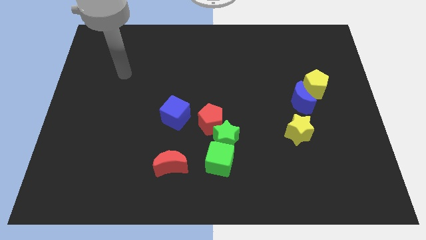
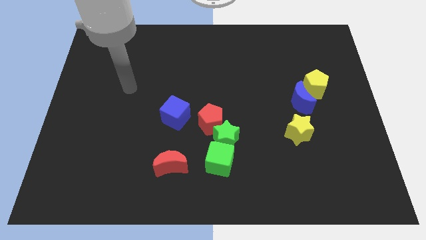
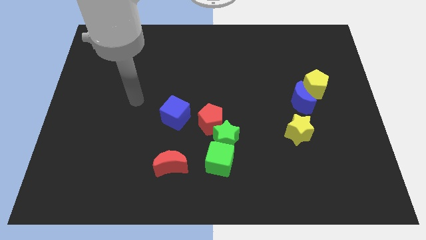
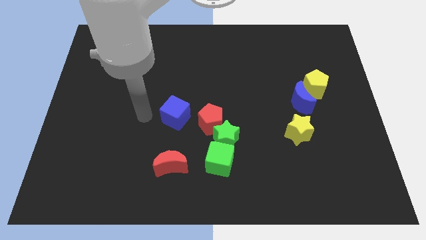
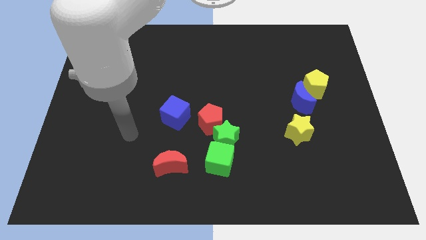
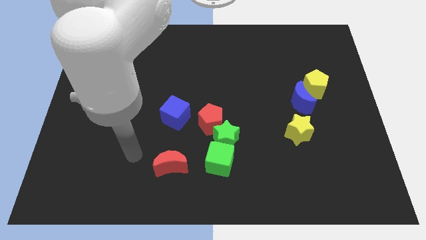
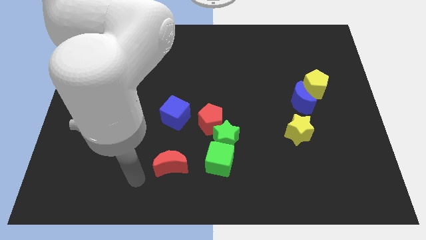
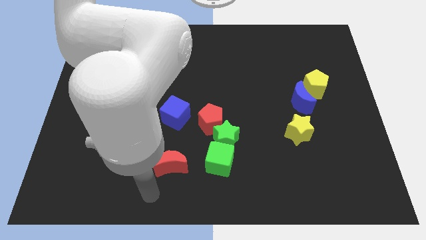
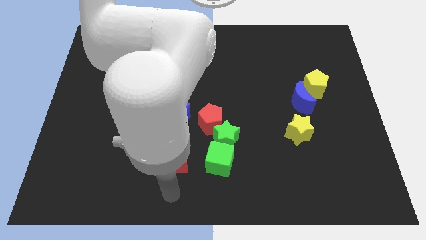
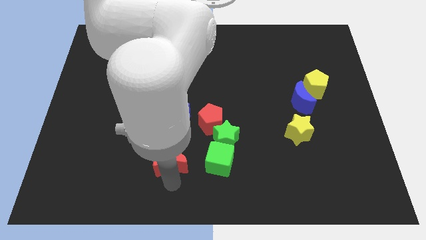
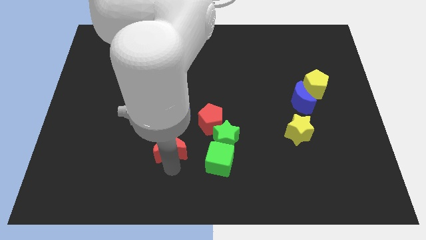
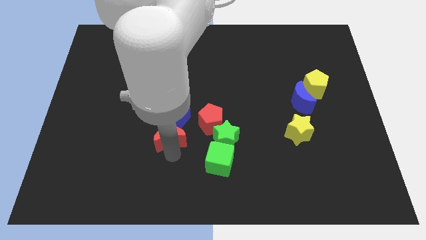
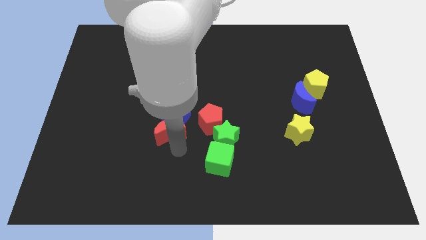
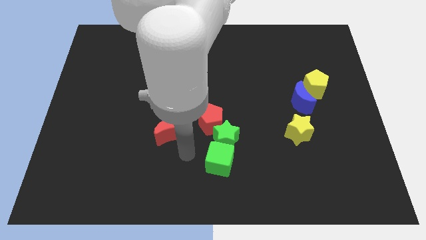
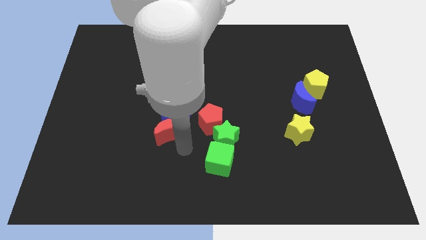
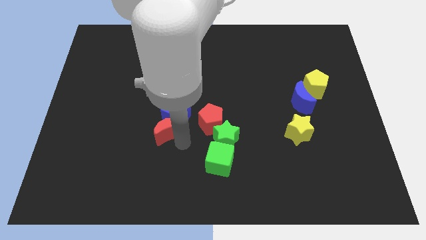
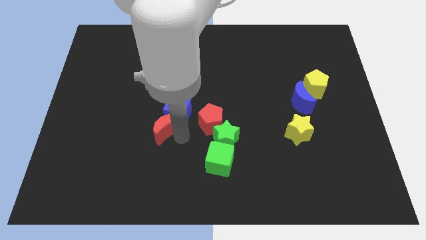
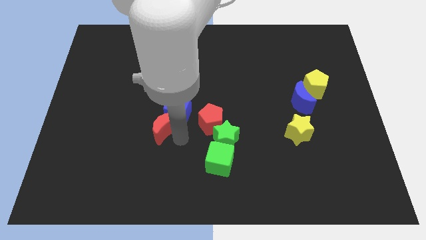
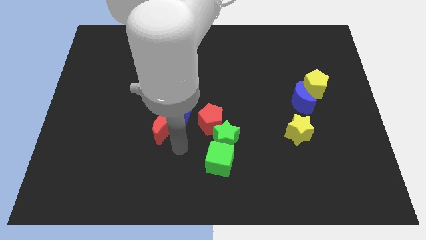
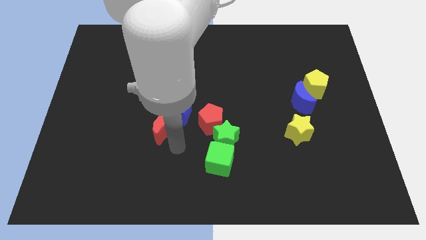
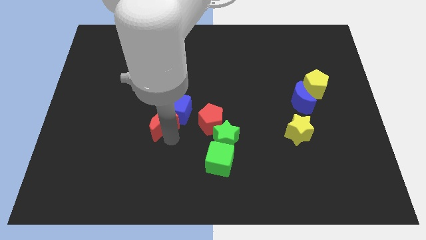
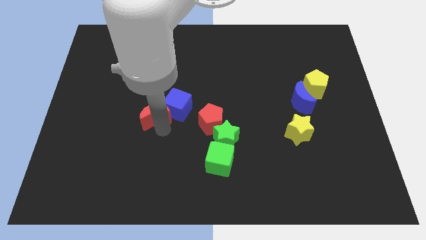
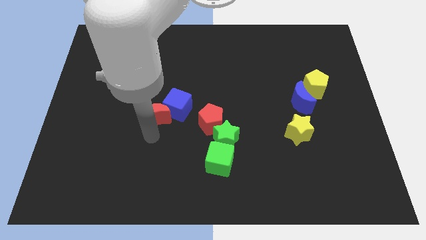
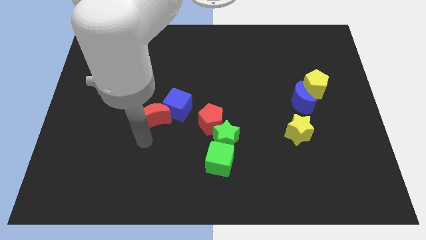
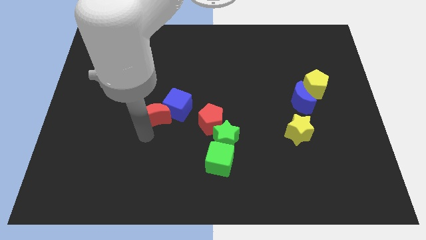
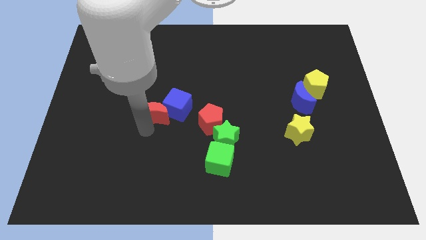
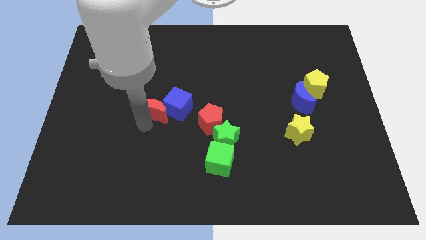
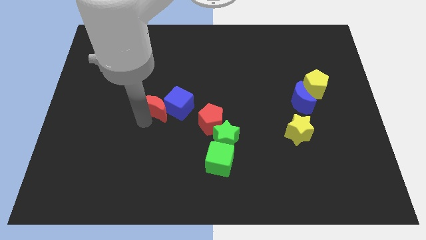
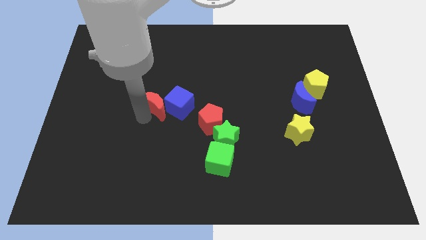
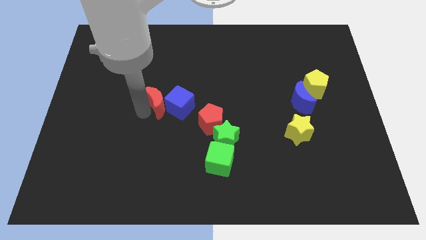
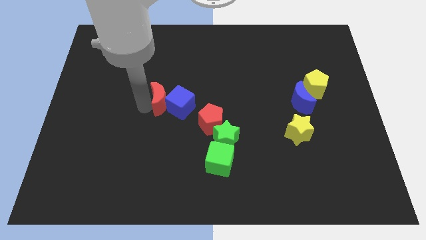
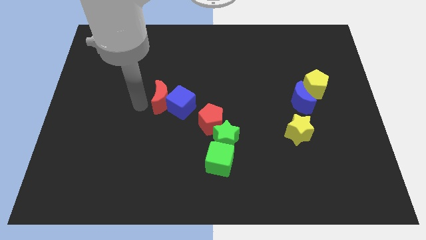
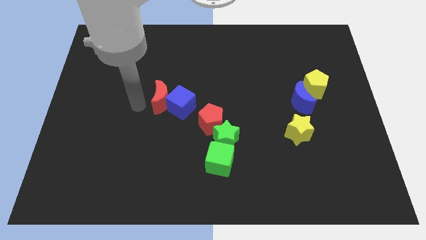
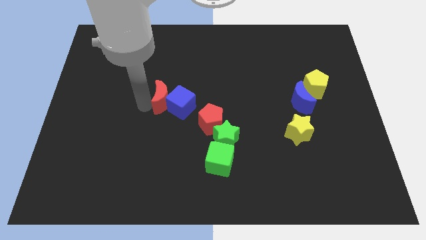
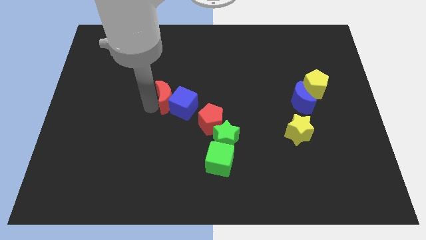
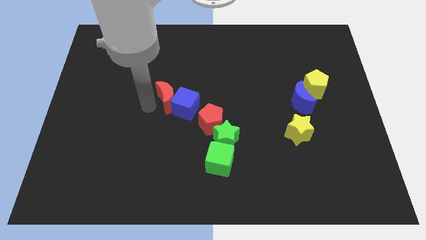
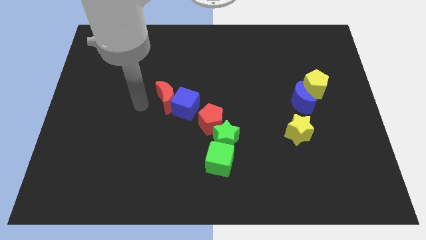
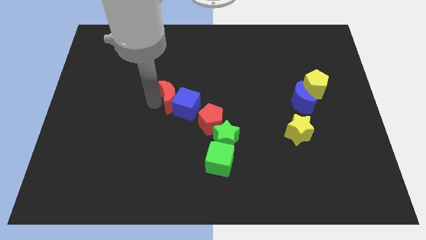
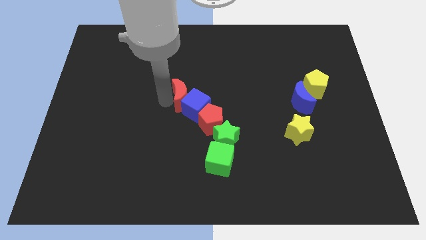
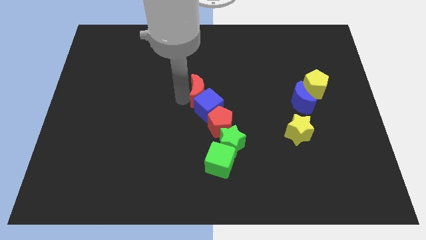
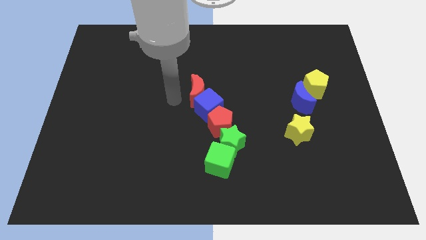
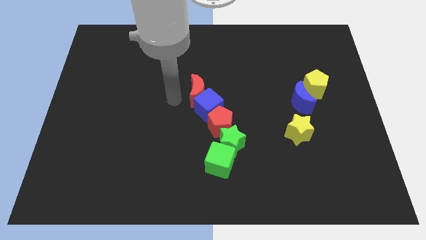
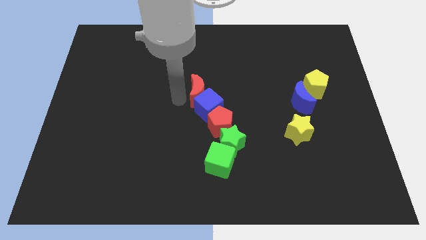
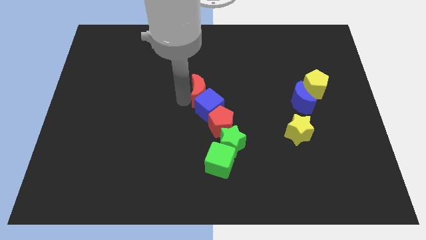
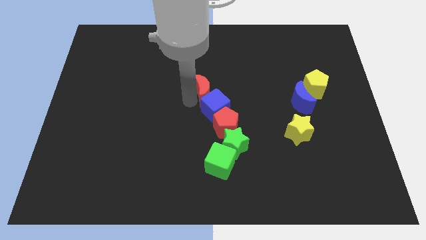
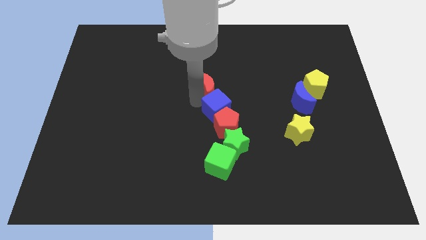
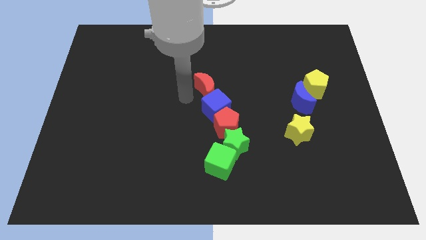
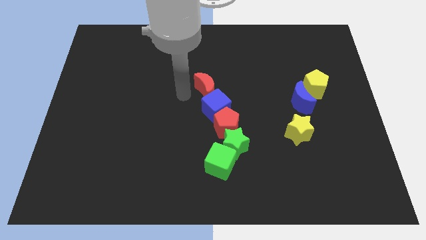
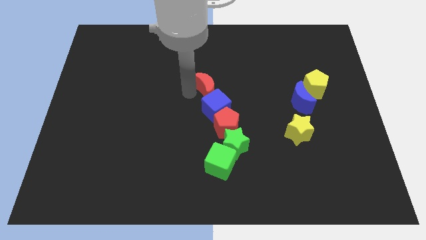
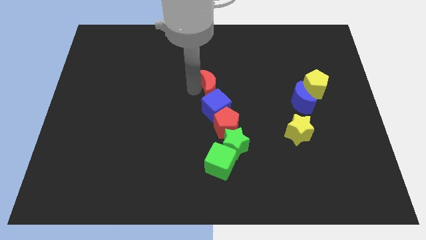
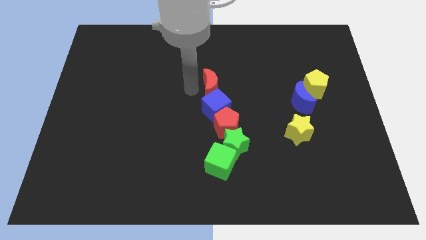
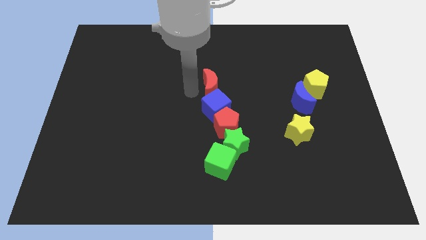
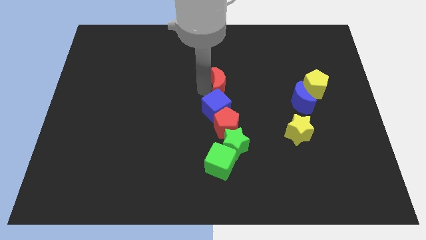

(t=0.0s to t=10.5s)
slide the red moon up and right diagonally

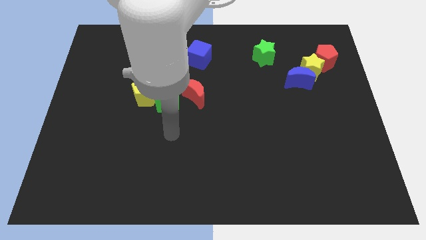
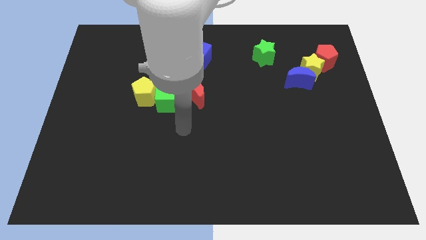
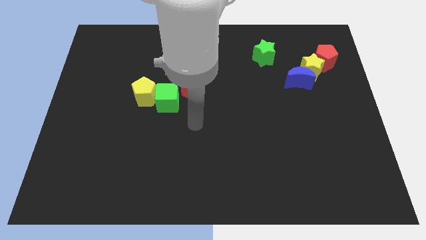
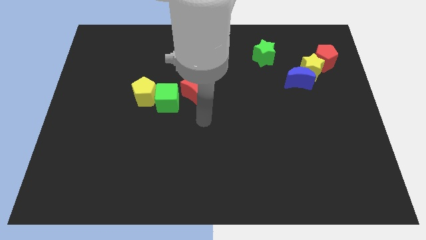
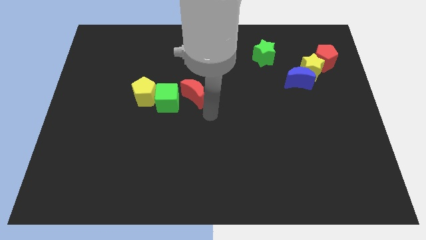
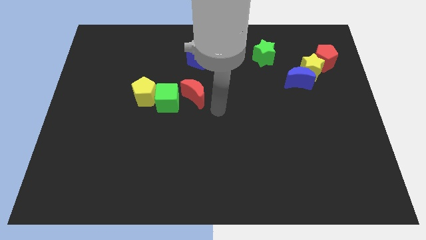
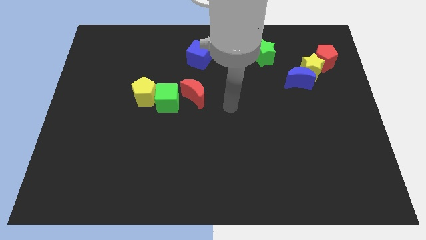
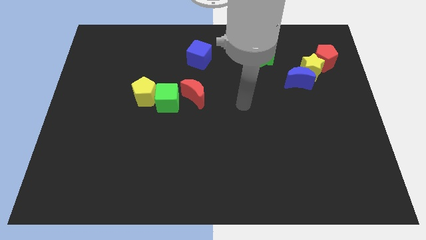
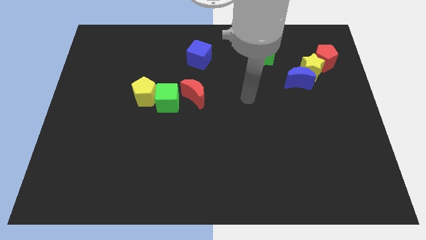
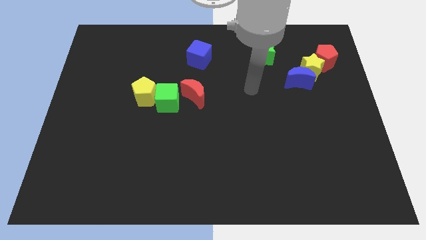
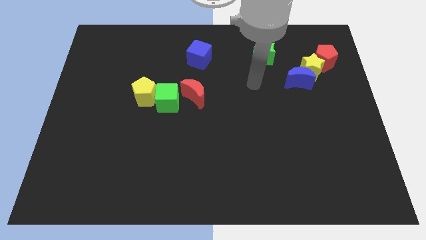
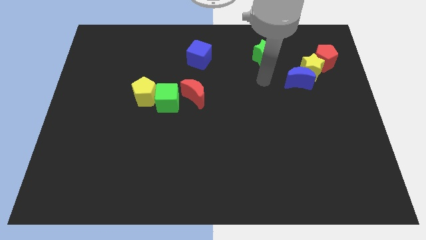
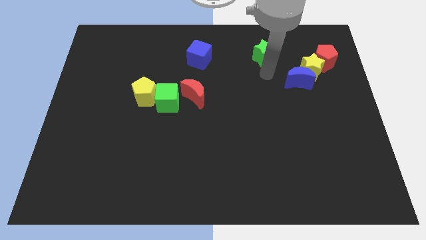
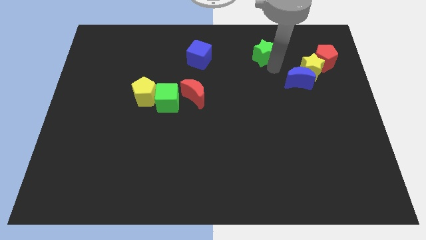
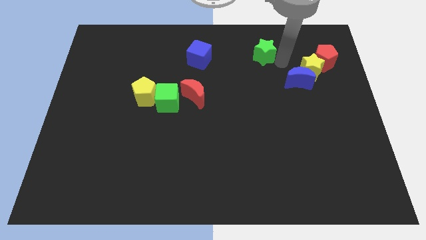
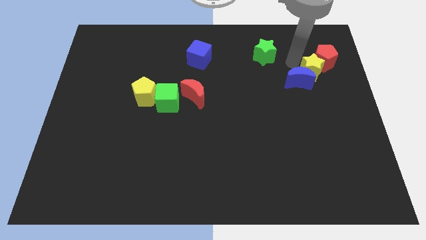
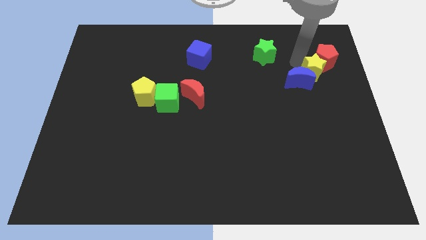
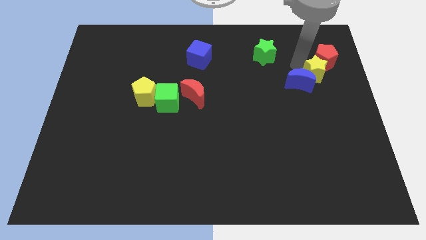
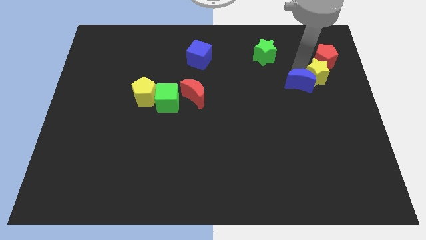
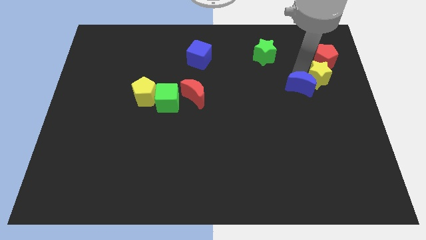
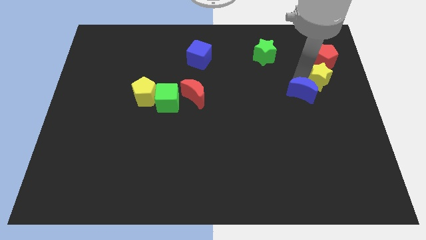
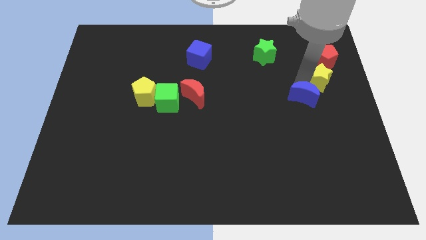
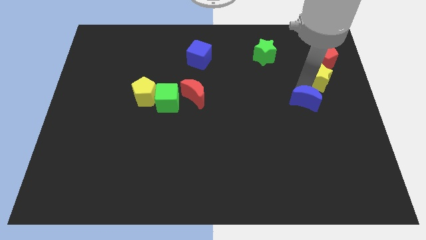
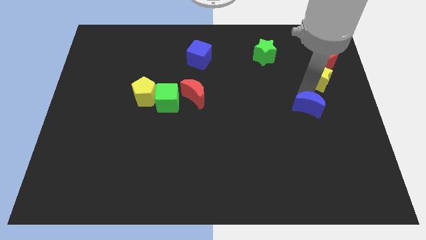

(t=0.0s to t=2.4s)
slightly move the blue moon down
